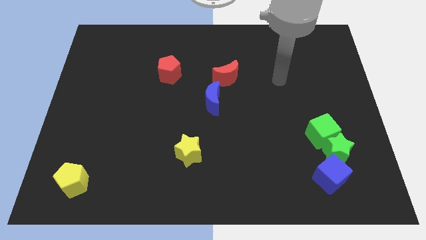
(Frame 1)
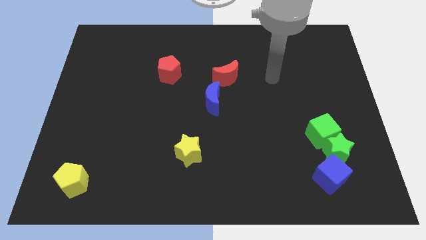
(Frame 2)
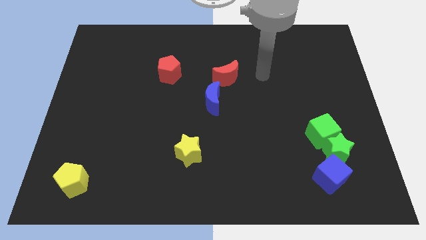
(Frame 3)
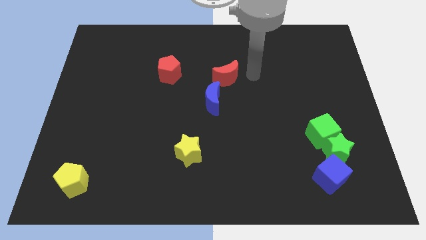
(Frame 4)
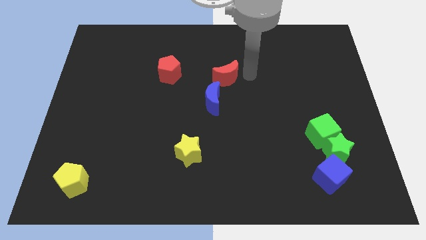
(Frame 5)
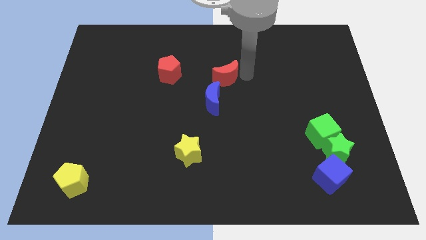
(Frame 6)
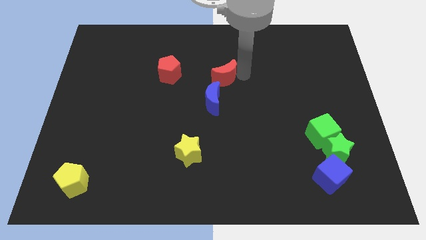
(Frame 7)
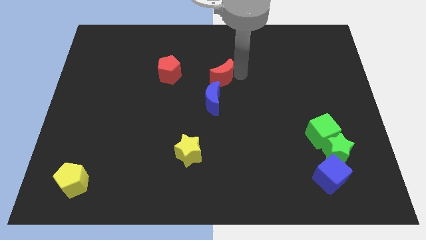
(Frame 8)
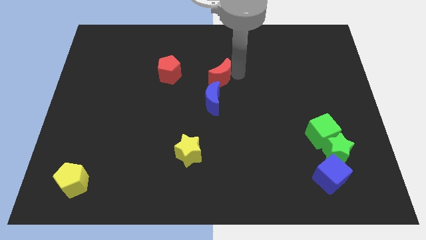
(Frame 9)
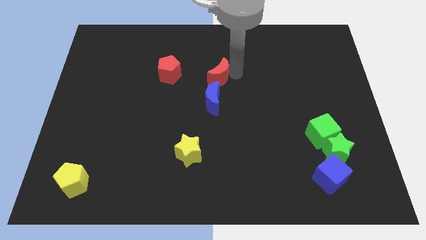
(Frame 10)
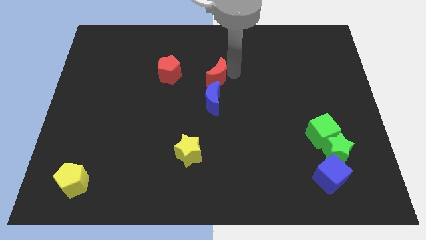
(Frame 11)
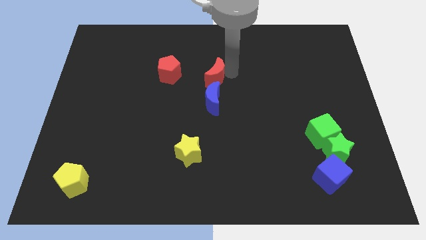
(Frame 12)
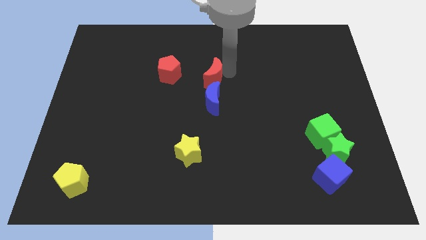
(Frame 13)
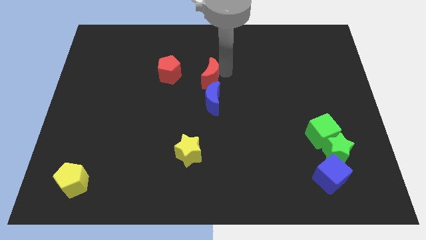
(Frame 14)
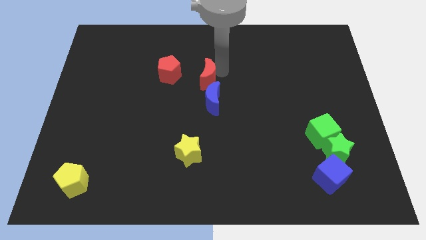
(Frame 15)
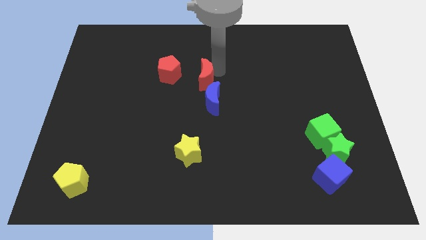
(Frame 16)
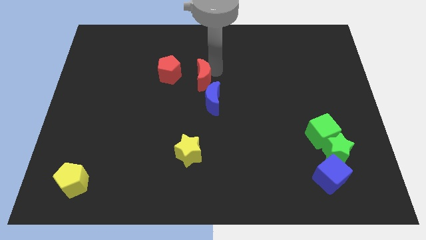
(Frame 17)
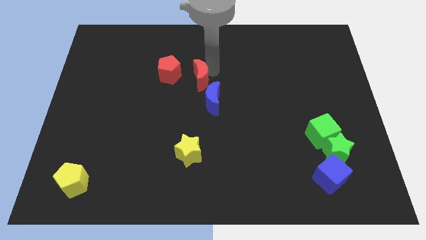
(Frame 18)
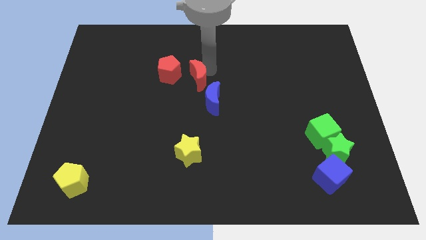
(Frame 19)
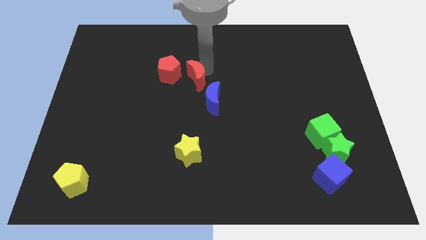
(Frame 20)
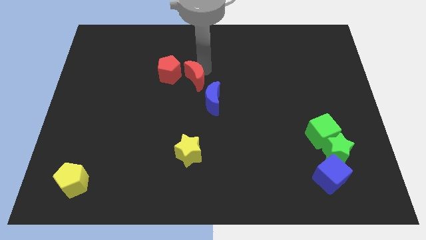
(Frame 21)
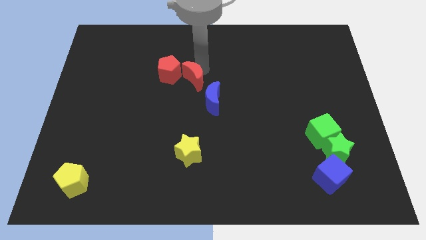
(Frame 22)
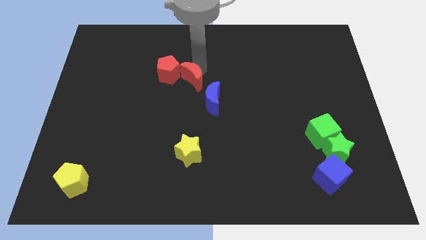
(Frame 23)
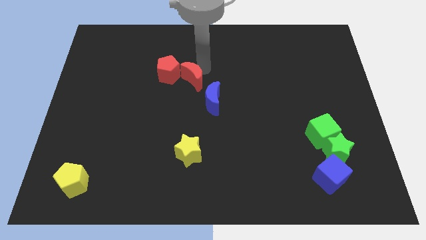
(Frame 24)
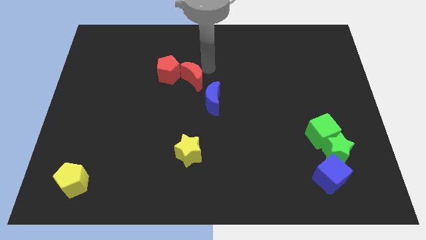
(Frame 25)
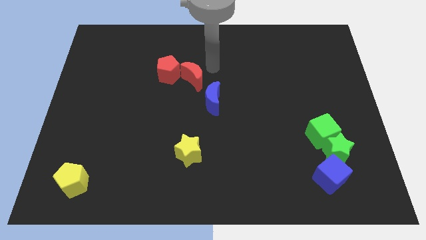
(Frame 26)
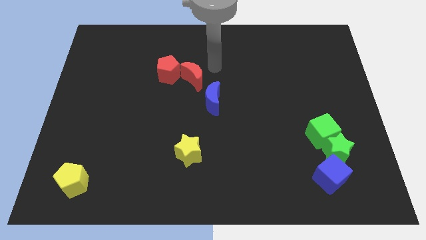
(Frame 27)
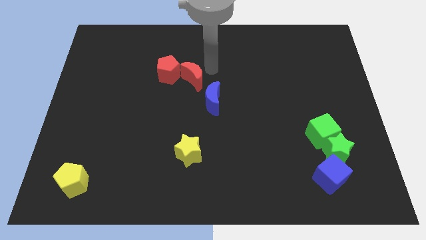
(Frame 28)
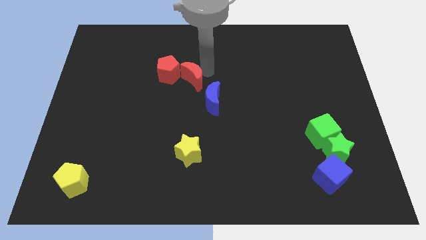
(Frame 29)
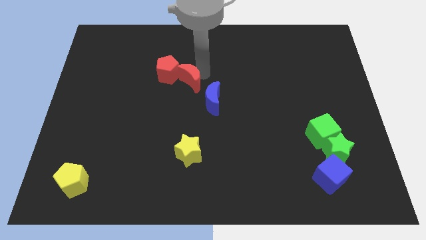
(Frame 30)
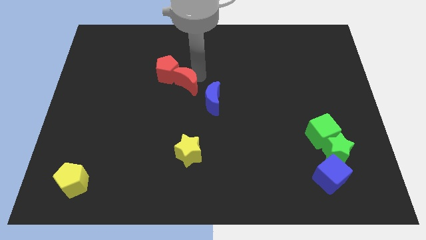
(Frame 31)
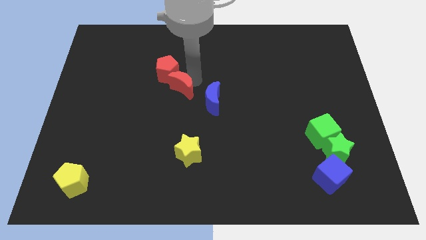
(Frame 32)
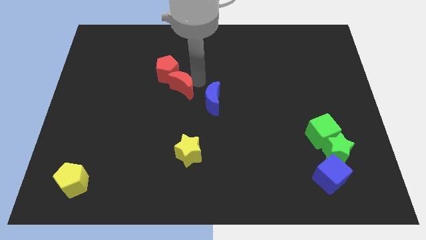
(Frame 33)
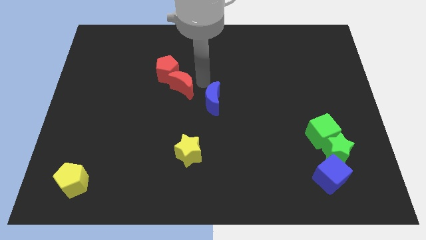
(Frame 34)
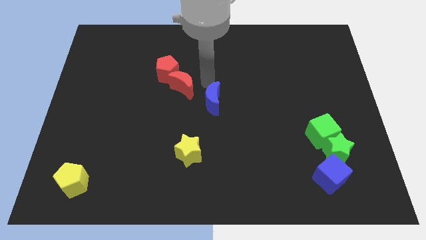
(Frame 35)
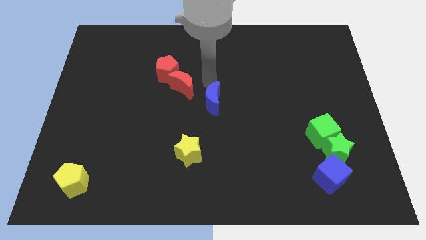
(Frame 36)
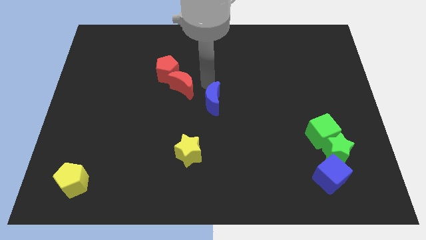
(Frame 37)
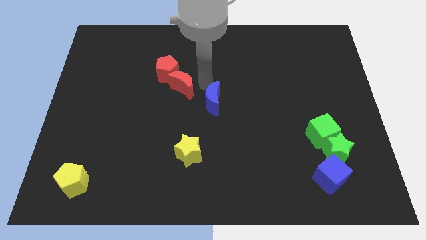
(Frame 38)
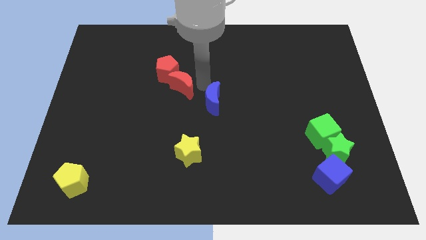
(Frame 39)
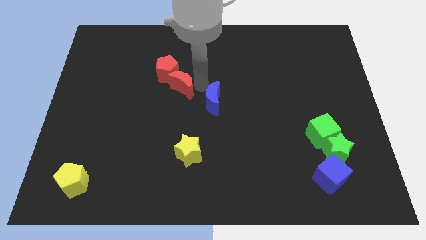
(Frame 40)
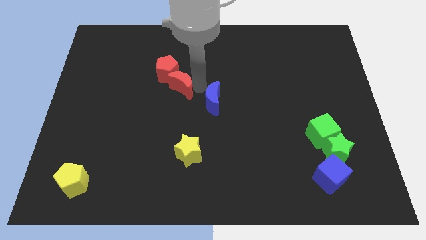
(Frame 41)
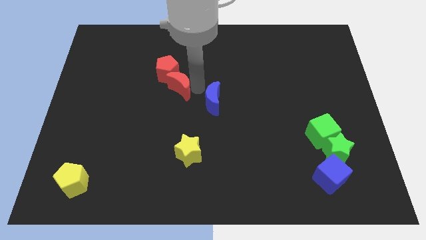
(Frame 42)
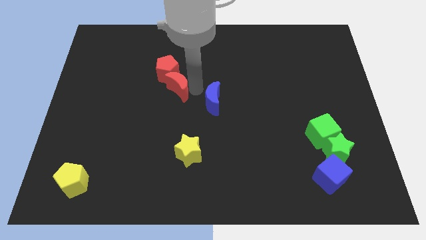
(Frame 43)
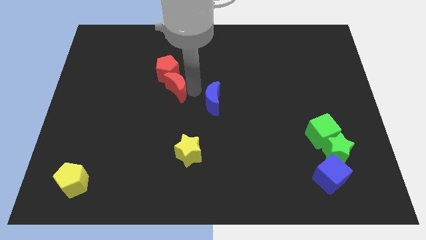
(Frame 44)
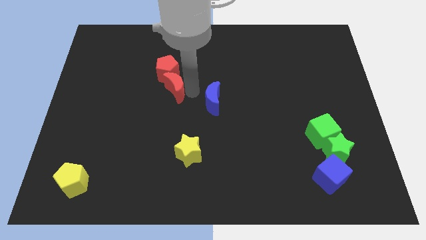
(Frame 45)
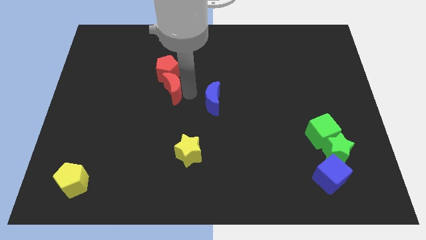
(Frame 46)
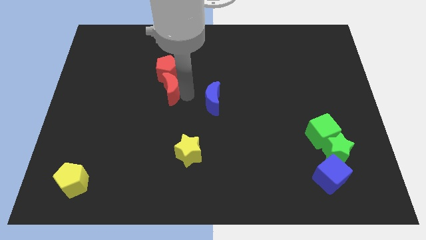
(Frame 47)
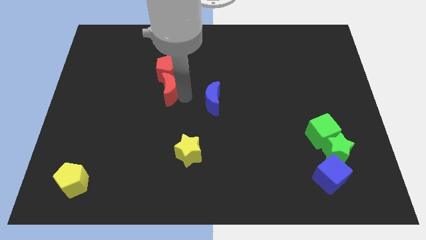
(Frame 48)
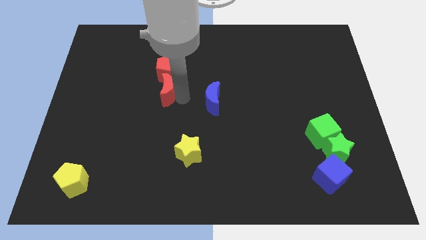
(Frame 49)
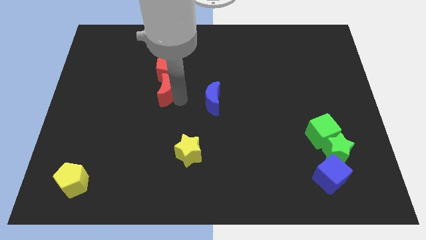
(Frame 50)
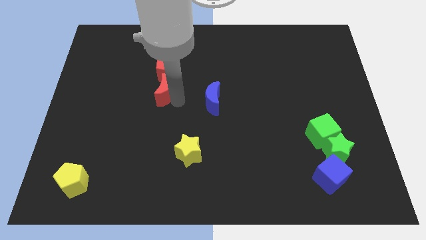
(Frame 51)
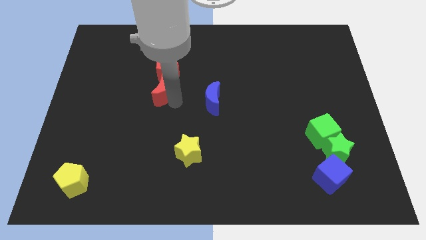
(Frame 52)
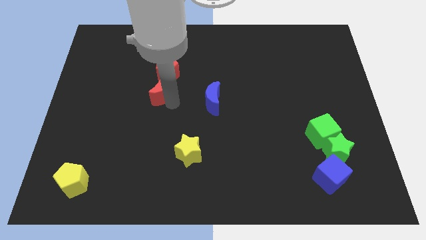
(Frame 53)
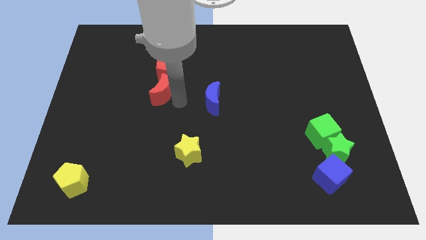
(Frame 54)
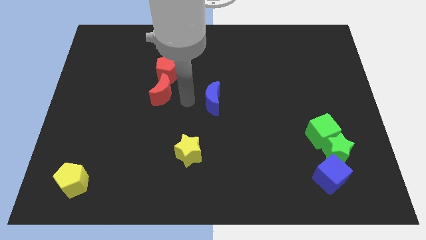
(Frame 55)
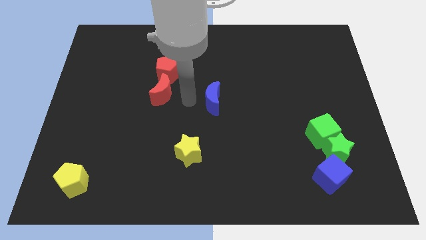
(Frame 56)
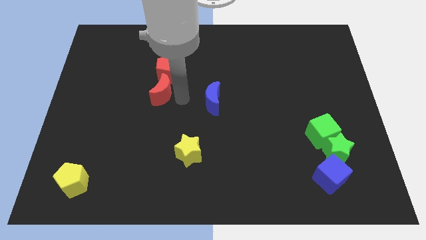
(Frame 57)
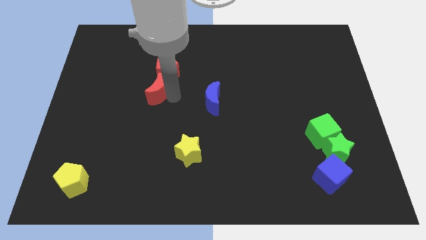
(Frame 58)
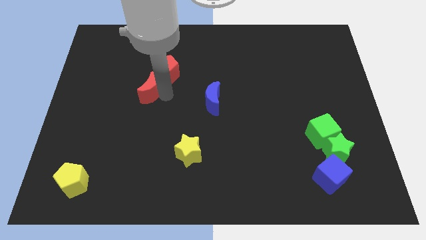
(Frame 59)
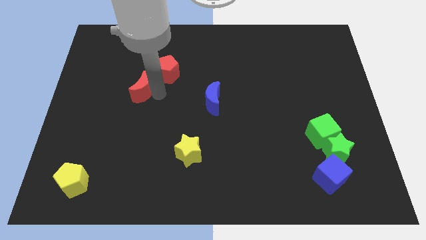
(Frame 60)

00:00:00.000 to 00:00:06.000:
push the red moon to the left

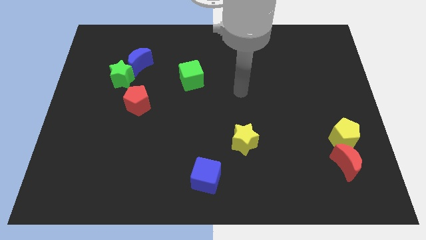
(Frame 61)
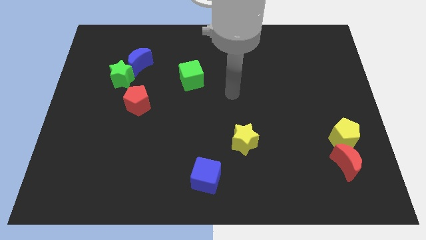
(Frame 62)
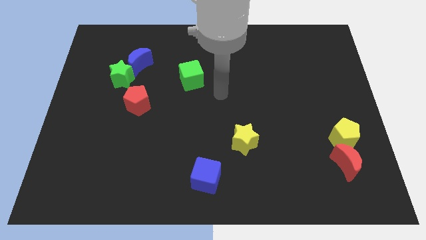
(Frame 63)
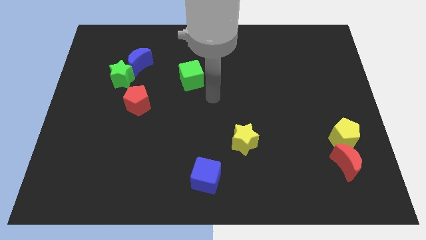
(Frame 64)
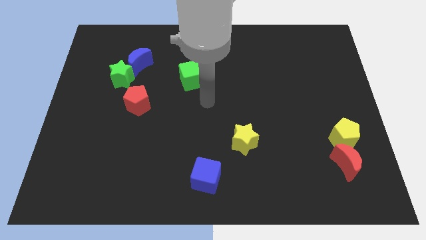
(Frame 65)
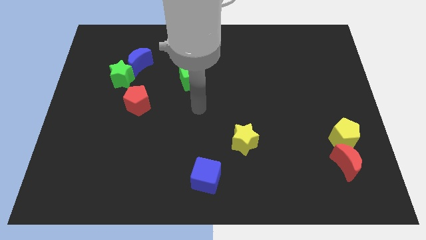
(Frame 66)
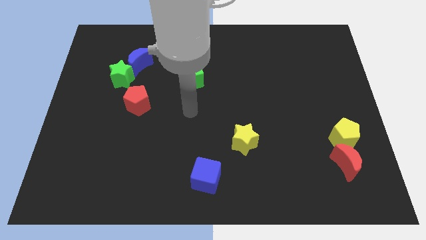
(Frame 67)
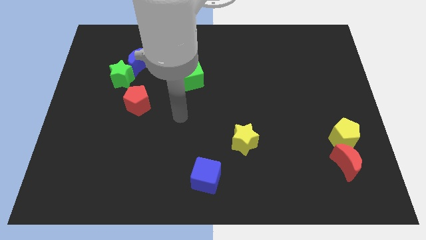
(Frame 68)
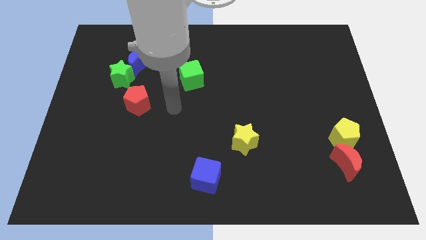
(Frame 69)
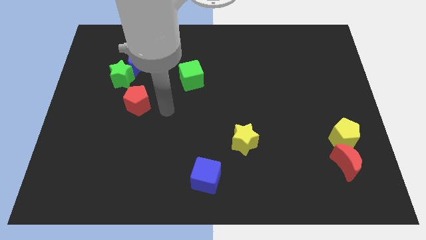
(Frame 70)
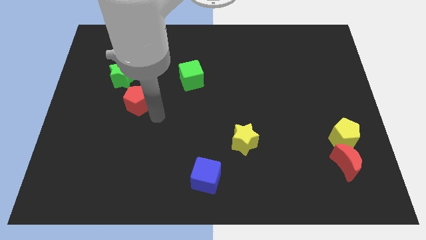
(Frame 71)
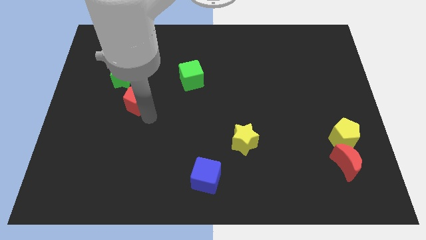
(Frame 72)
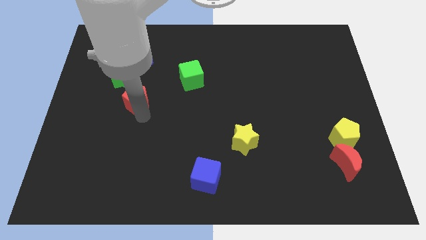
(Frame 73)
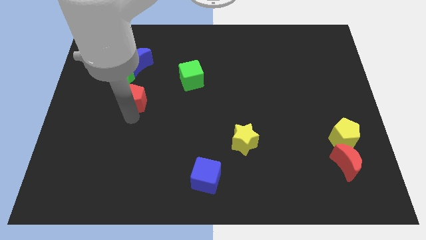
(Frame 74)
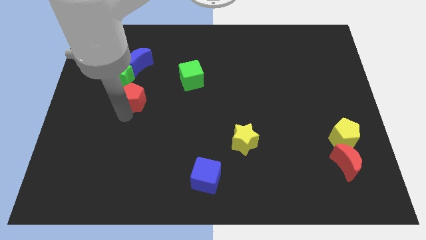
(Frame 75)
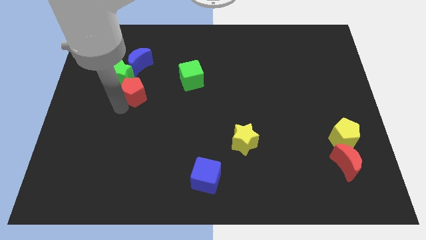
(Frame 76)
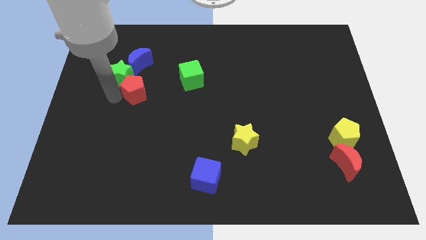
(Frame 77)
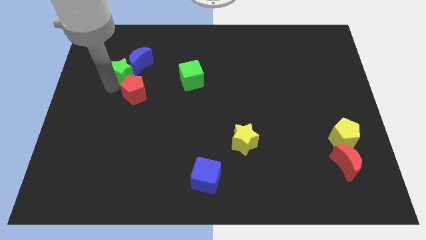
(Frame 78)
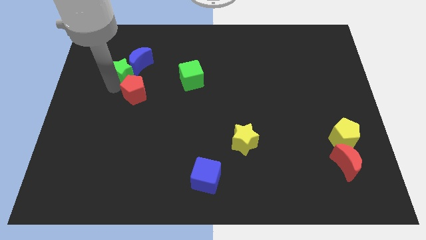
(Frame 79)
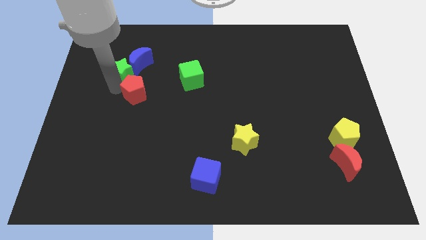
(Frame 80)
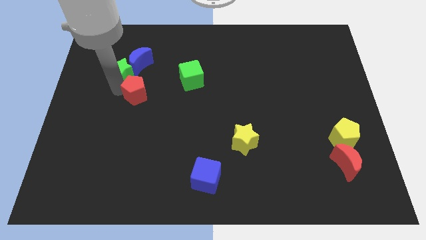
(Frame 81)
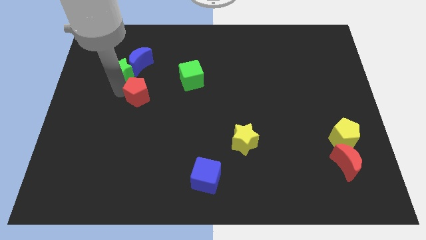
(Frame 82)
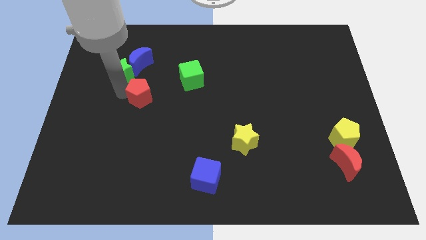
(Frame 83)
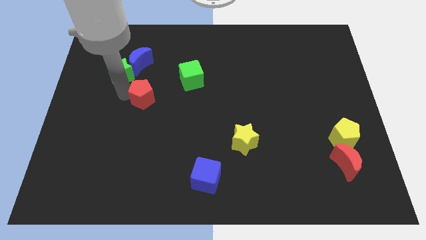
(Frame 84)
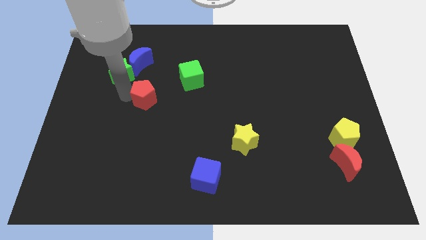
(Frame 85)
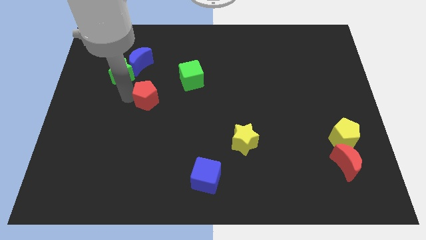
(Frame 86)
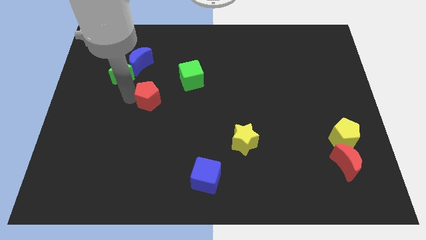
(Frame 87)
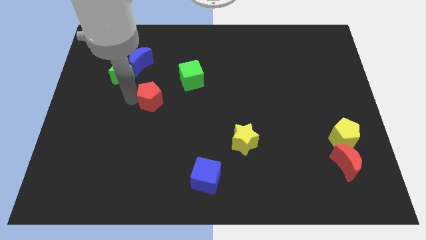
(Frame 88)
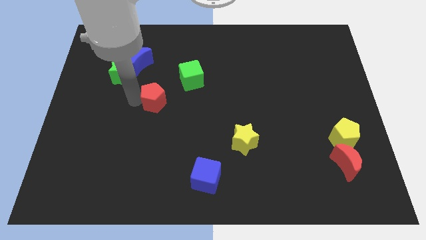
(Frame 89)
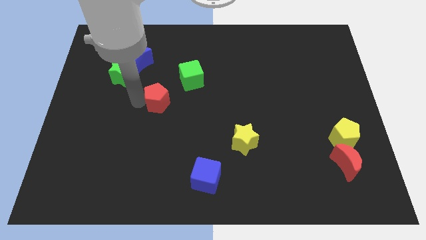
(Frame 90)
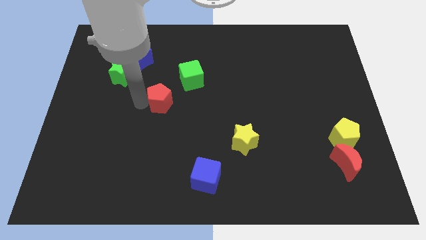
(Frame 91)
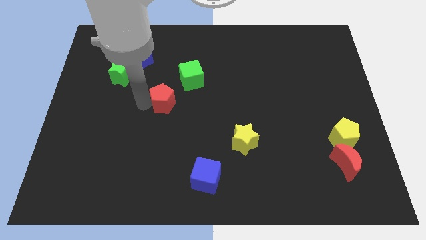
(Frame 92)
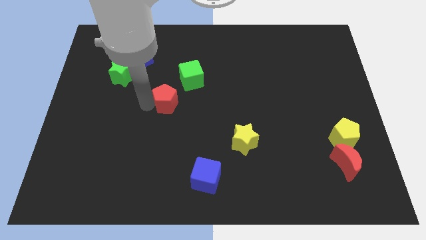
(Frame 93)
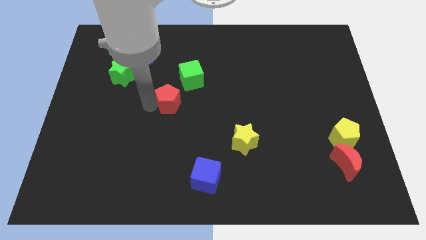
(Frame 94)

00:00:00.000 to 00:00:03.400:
move the red pentagon right a bit
